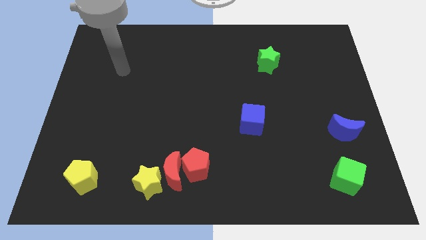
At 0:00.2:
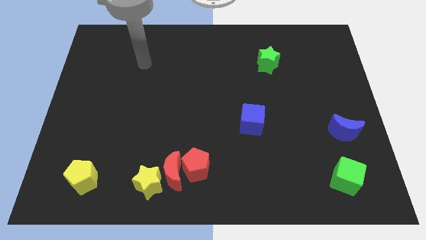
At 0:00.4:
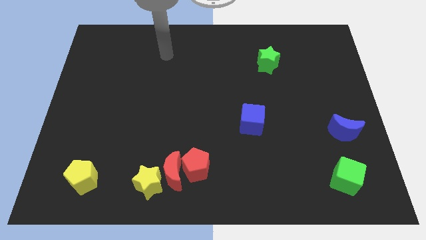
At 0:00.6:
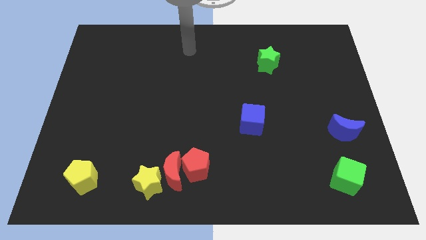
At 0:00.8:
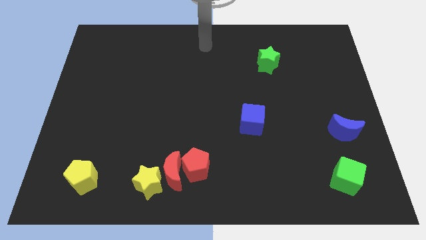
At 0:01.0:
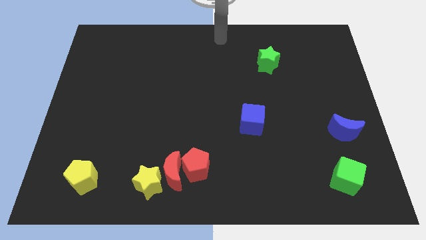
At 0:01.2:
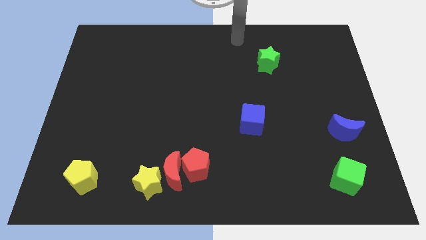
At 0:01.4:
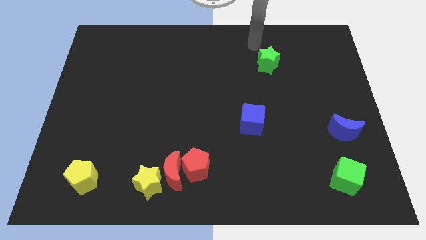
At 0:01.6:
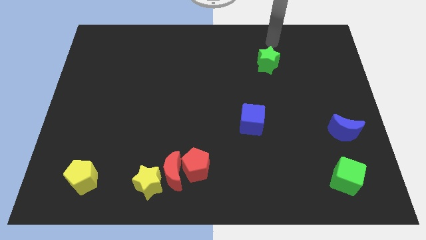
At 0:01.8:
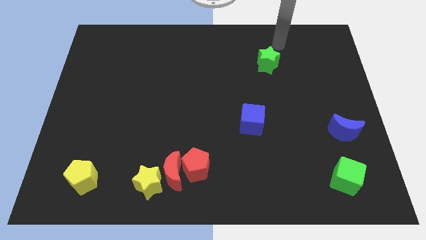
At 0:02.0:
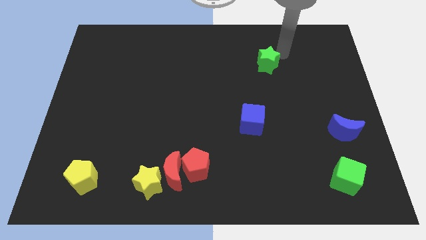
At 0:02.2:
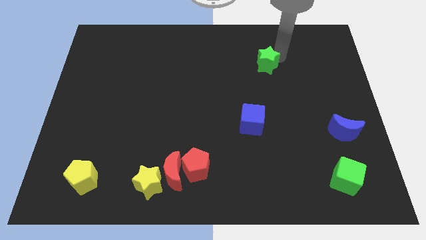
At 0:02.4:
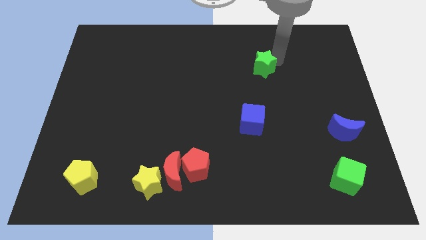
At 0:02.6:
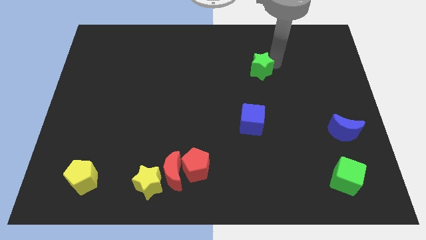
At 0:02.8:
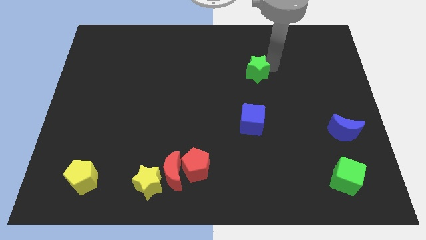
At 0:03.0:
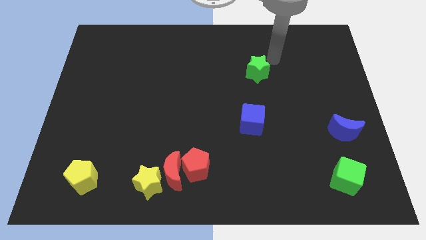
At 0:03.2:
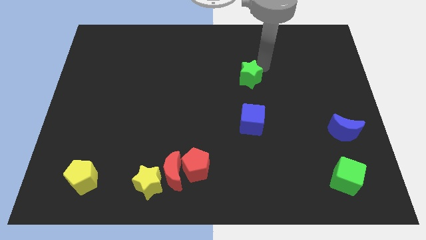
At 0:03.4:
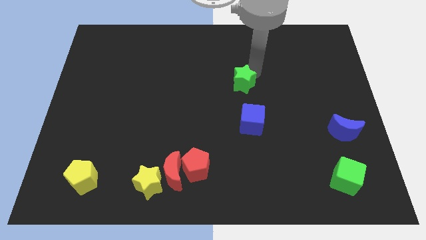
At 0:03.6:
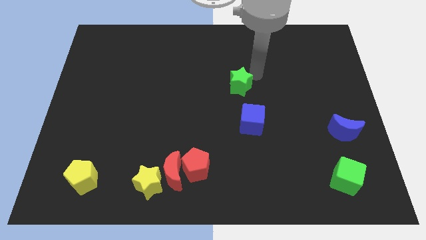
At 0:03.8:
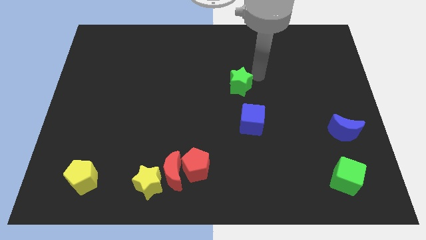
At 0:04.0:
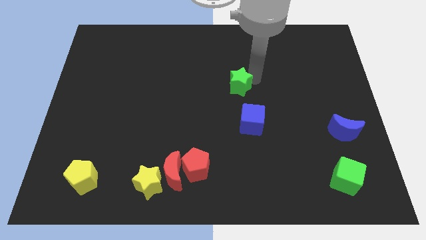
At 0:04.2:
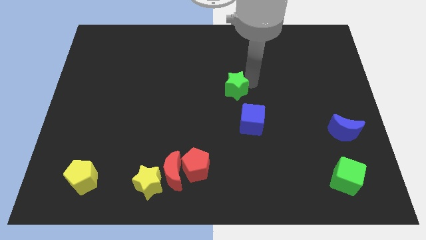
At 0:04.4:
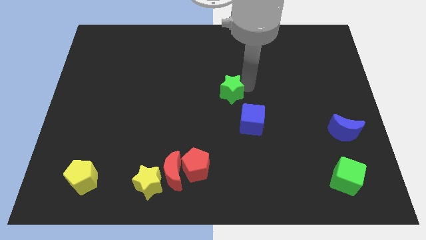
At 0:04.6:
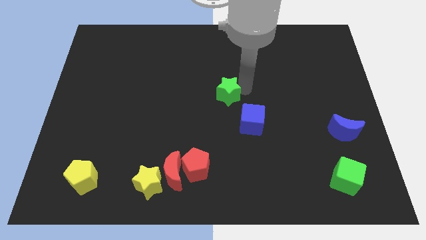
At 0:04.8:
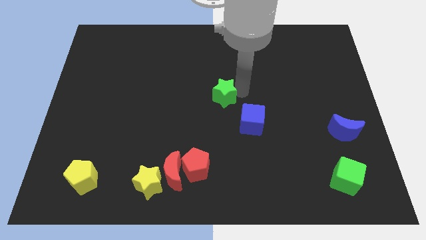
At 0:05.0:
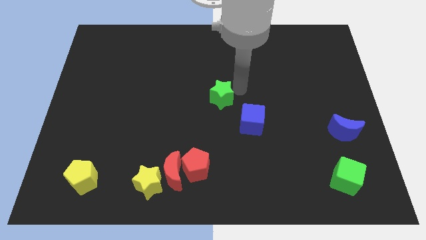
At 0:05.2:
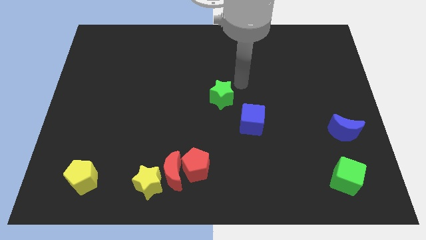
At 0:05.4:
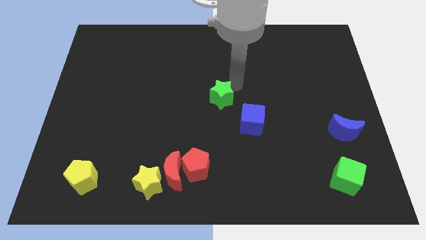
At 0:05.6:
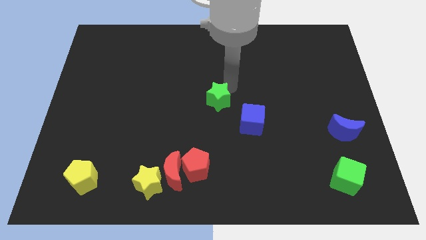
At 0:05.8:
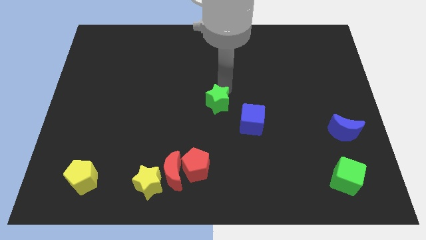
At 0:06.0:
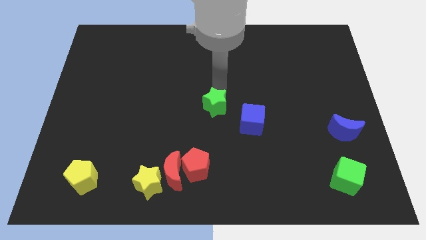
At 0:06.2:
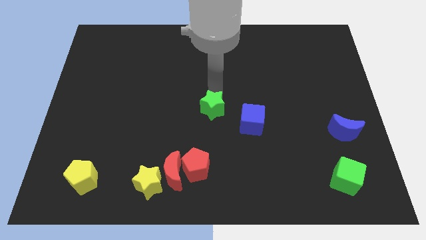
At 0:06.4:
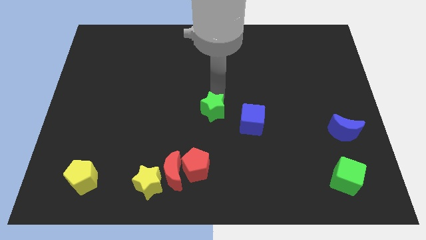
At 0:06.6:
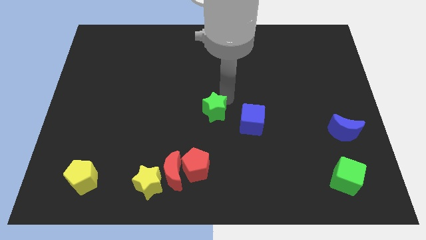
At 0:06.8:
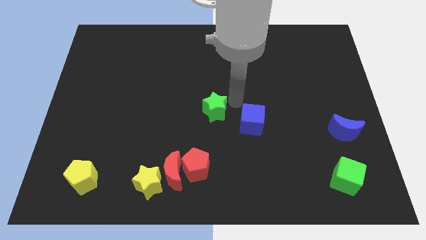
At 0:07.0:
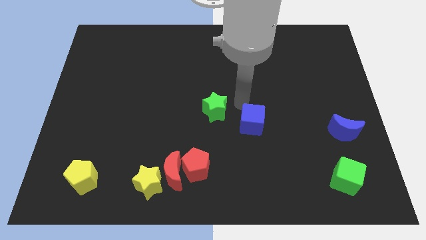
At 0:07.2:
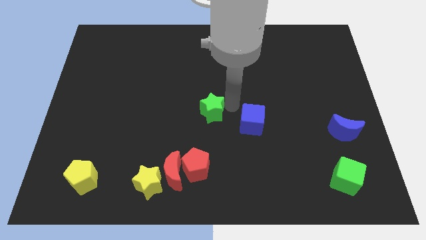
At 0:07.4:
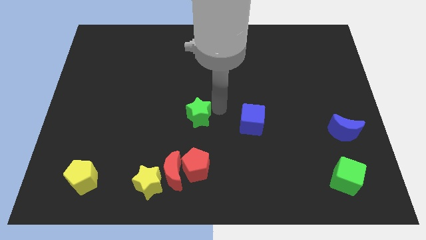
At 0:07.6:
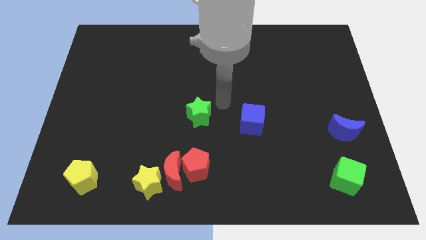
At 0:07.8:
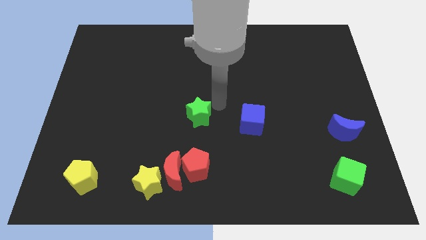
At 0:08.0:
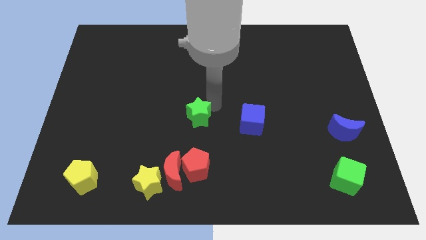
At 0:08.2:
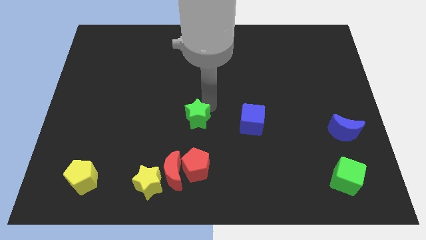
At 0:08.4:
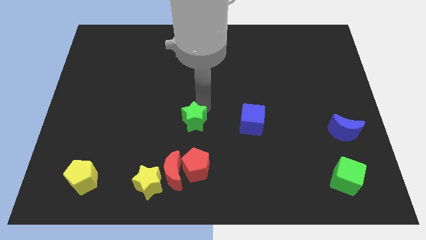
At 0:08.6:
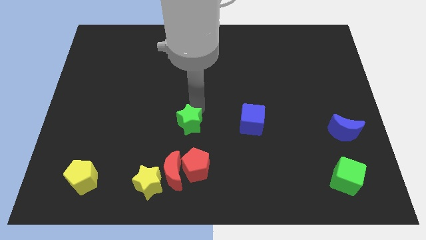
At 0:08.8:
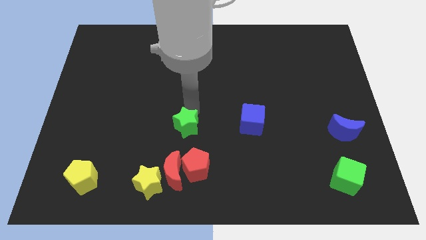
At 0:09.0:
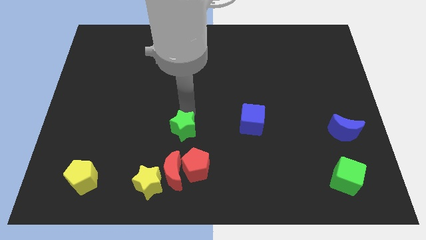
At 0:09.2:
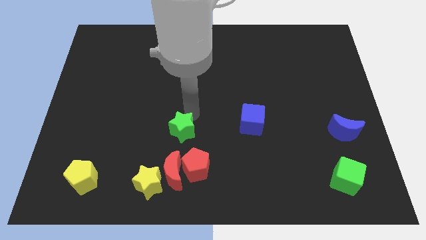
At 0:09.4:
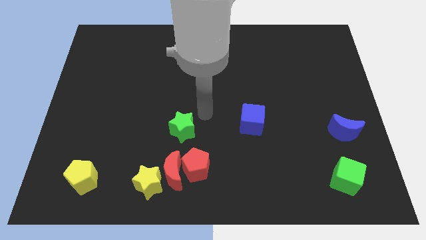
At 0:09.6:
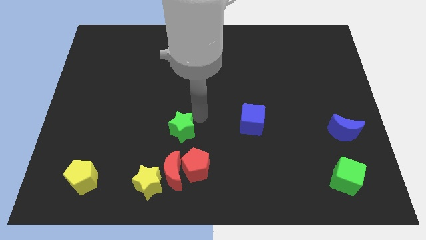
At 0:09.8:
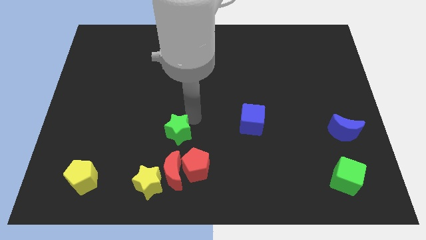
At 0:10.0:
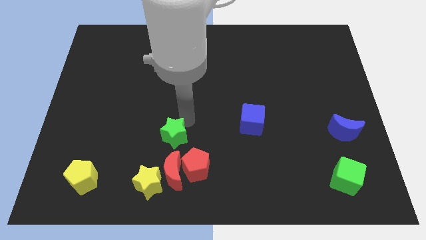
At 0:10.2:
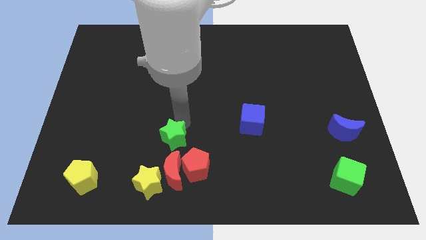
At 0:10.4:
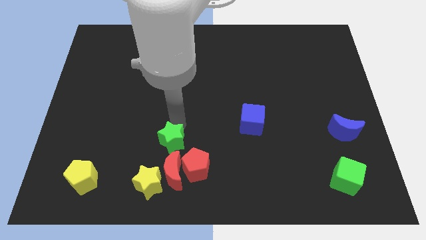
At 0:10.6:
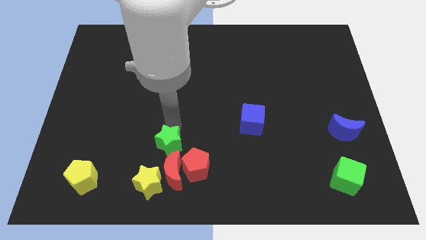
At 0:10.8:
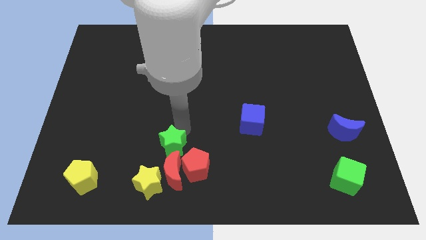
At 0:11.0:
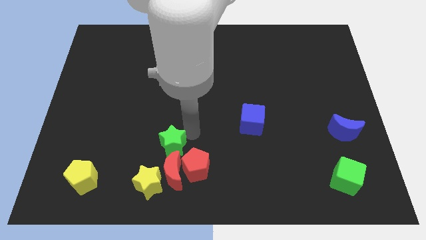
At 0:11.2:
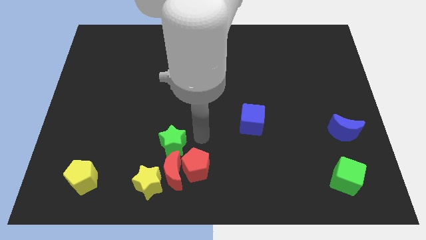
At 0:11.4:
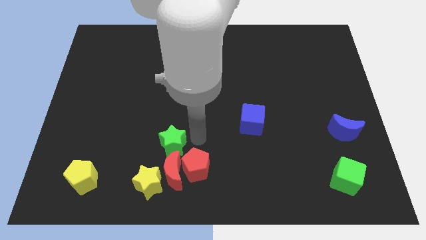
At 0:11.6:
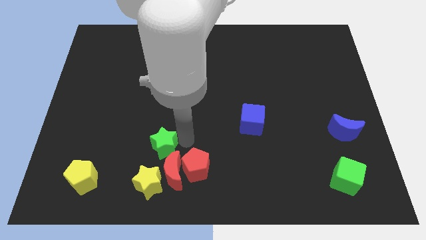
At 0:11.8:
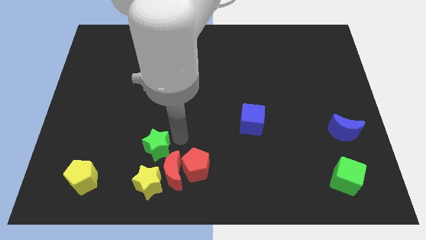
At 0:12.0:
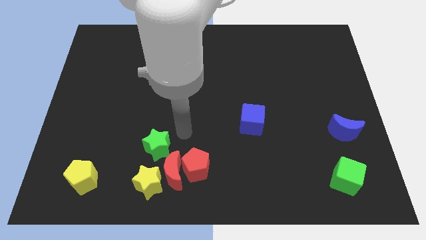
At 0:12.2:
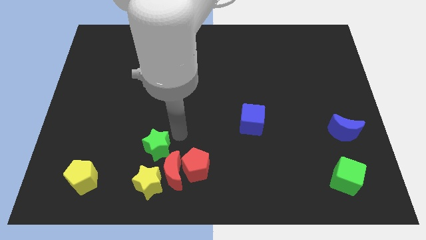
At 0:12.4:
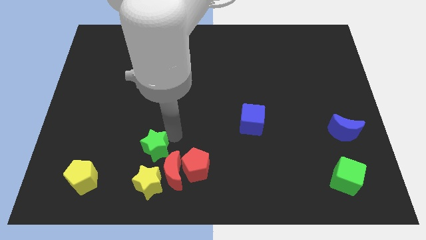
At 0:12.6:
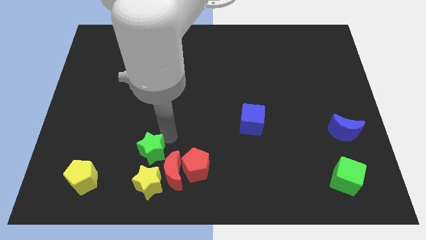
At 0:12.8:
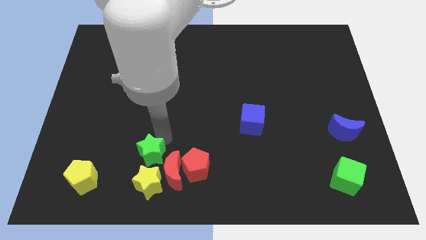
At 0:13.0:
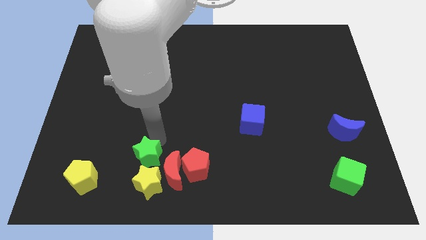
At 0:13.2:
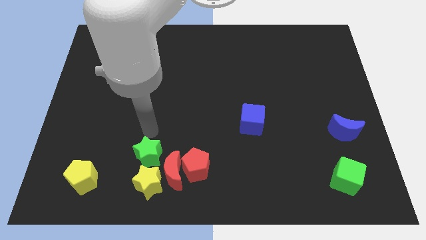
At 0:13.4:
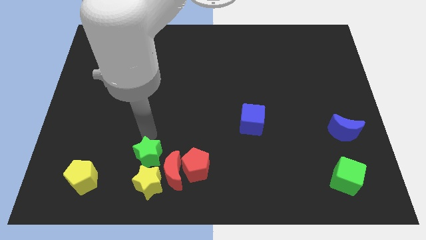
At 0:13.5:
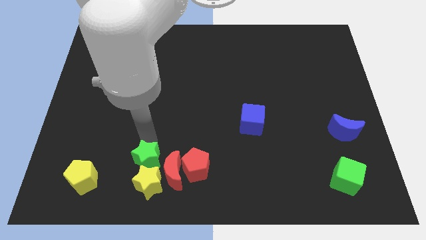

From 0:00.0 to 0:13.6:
push the green star next to the yellow star

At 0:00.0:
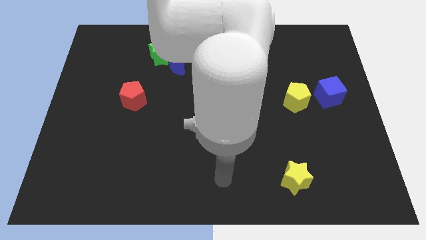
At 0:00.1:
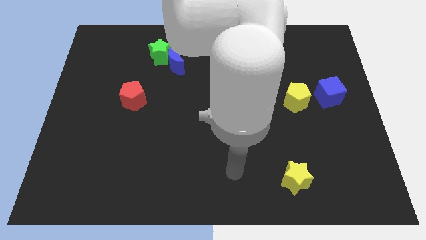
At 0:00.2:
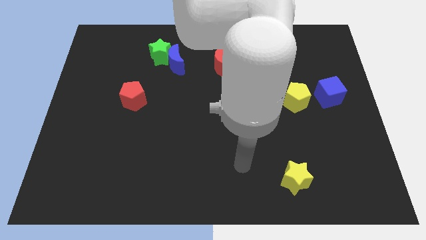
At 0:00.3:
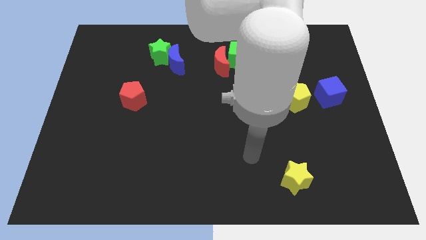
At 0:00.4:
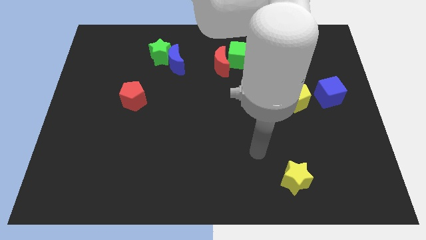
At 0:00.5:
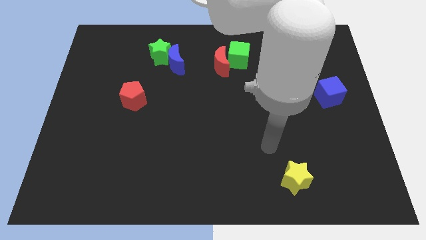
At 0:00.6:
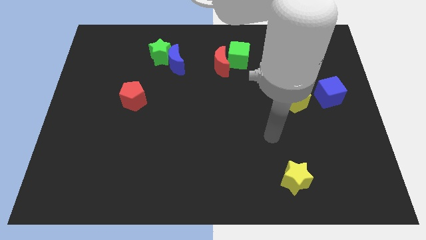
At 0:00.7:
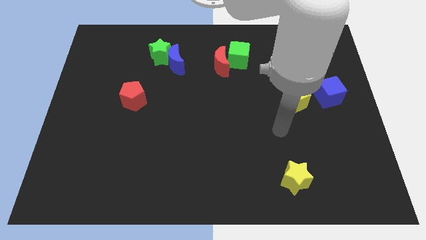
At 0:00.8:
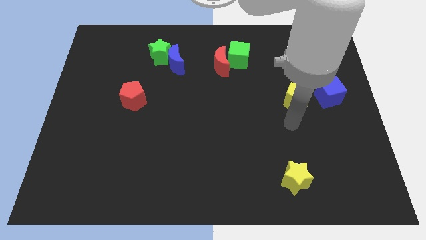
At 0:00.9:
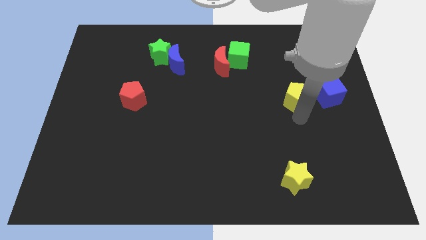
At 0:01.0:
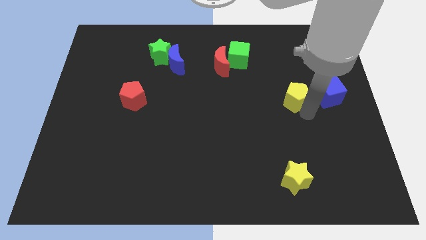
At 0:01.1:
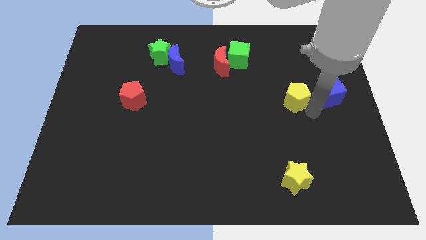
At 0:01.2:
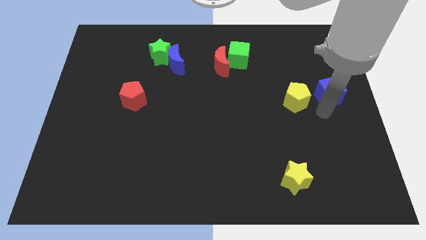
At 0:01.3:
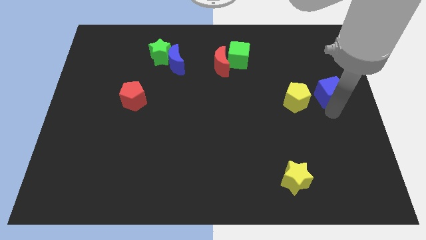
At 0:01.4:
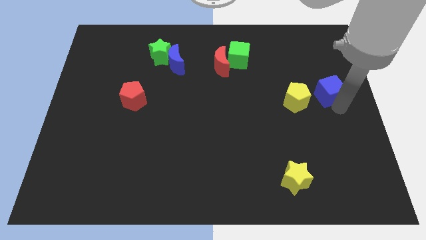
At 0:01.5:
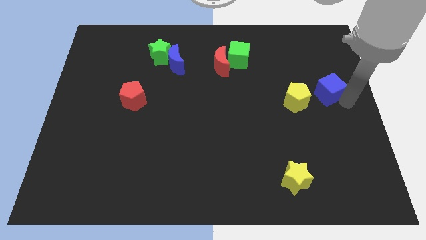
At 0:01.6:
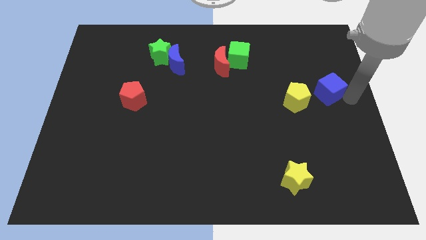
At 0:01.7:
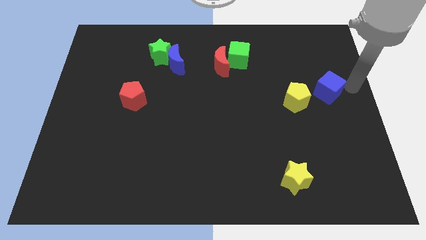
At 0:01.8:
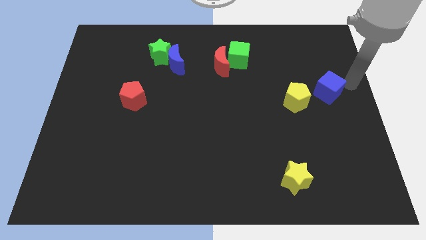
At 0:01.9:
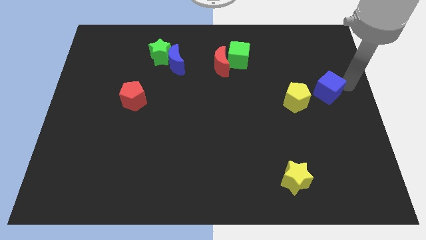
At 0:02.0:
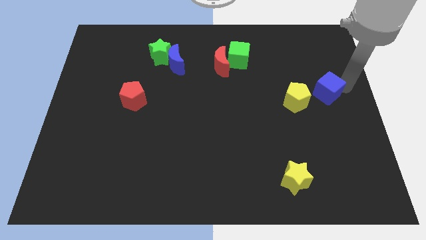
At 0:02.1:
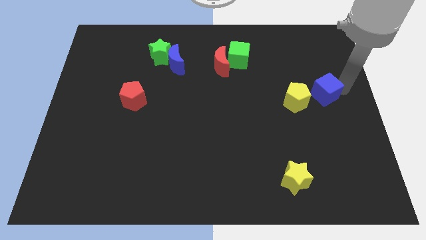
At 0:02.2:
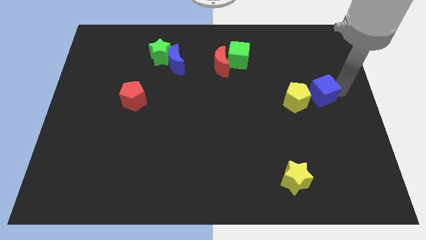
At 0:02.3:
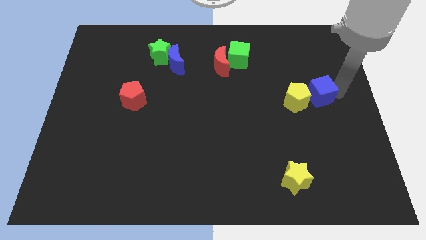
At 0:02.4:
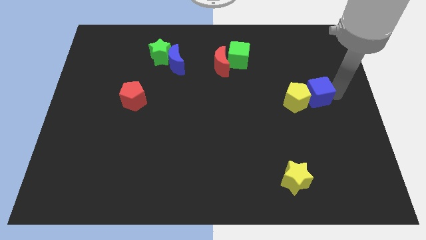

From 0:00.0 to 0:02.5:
put the blue cube close to the yellow pentagon
